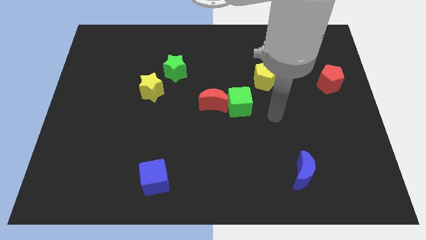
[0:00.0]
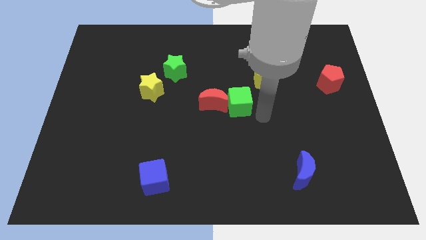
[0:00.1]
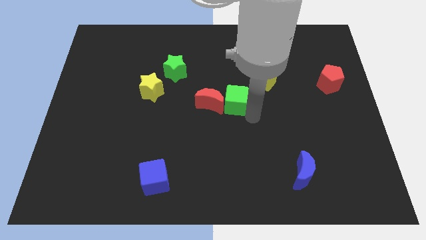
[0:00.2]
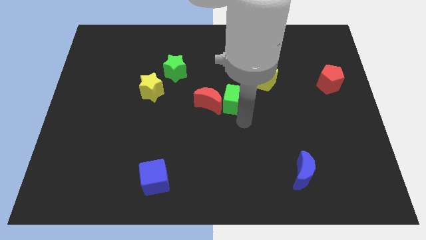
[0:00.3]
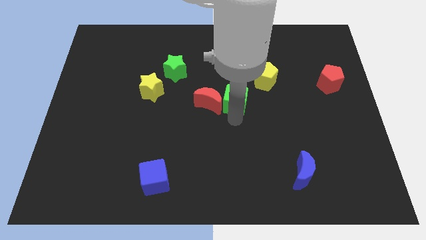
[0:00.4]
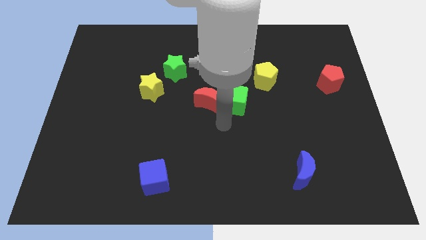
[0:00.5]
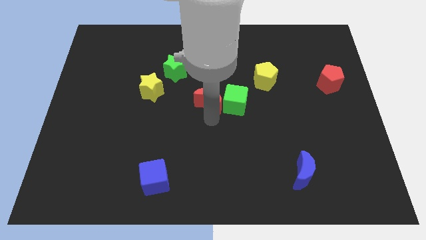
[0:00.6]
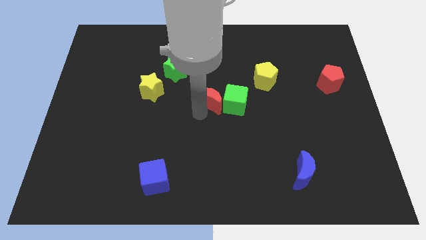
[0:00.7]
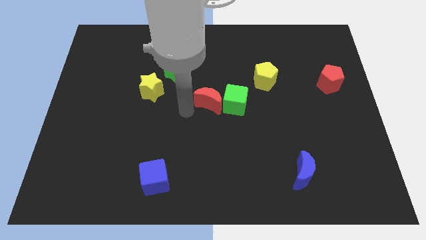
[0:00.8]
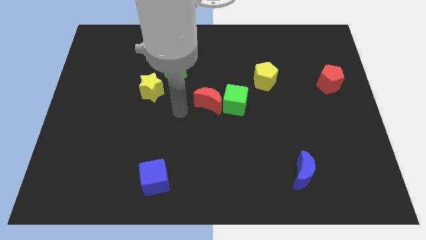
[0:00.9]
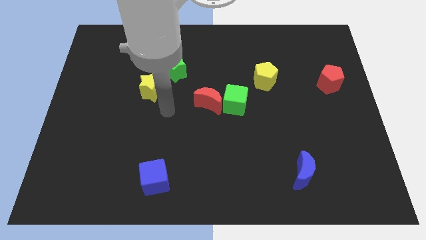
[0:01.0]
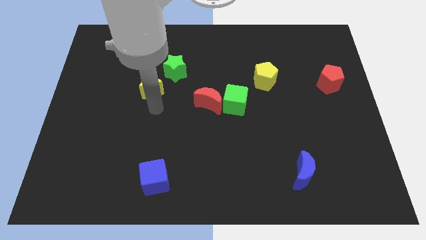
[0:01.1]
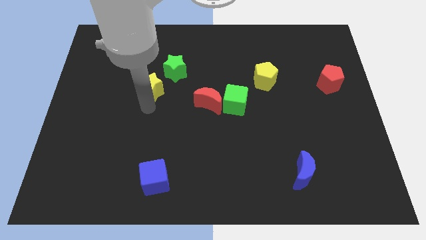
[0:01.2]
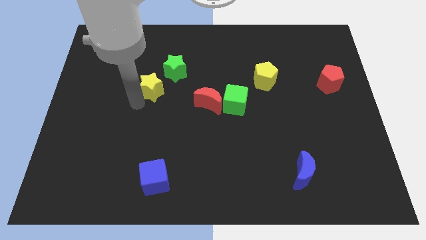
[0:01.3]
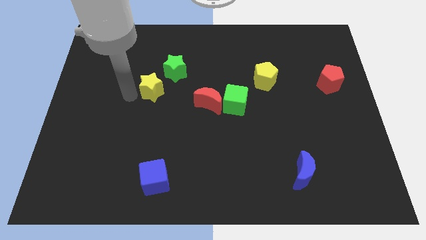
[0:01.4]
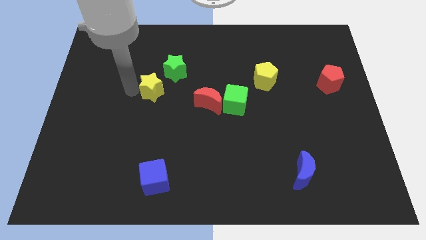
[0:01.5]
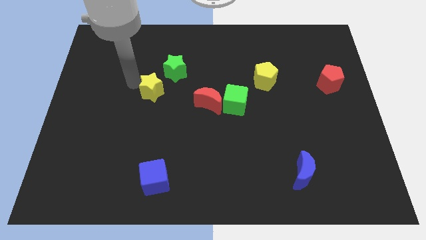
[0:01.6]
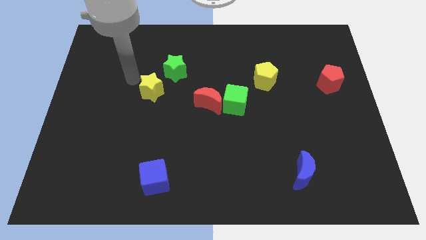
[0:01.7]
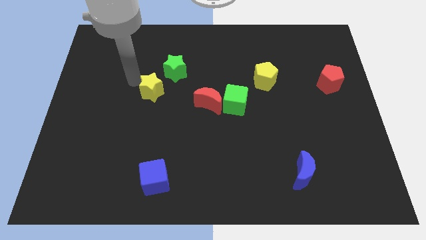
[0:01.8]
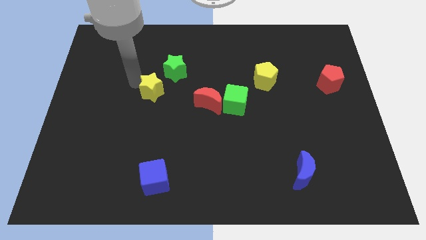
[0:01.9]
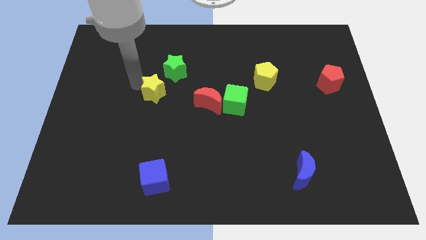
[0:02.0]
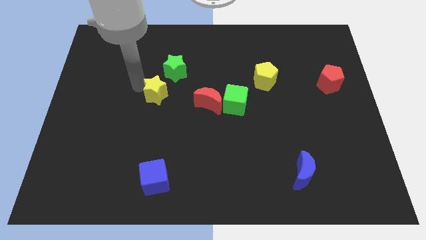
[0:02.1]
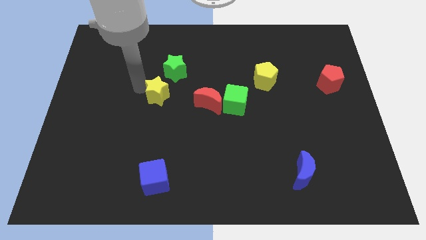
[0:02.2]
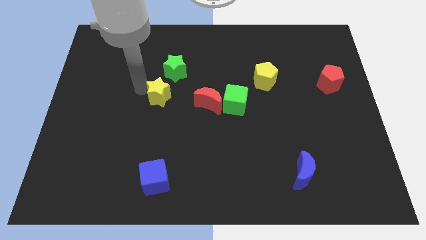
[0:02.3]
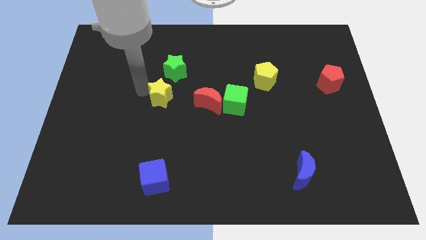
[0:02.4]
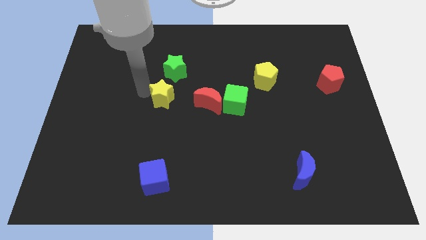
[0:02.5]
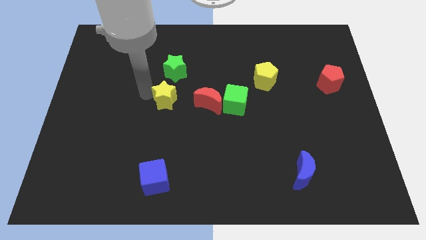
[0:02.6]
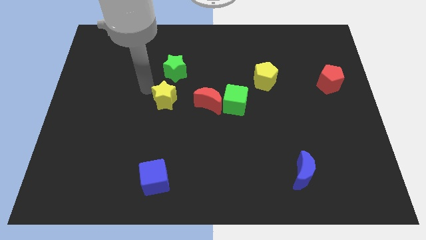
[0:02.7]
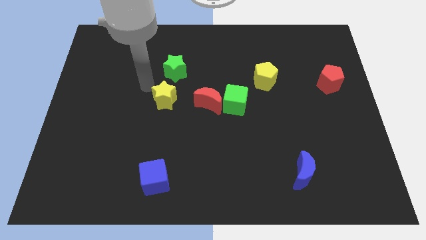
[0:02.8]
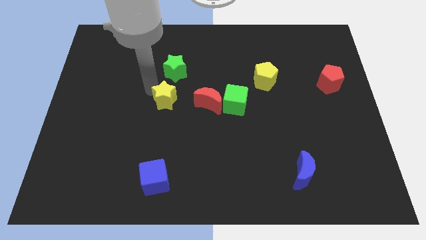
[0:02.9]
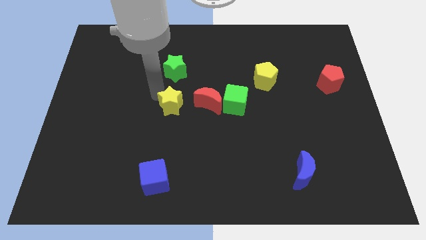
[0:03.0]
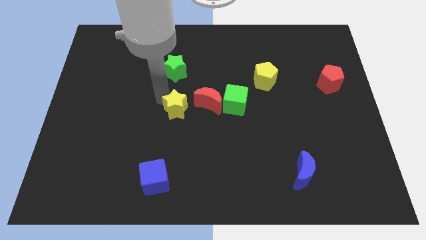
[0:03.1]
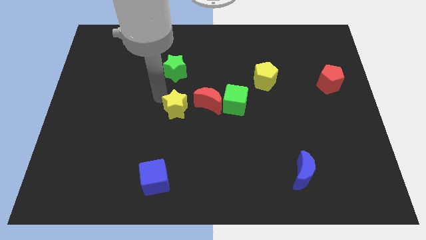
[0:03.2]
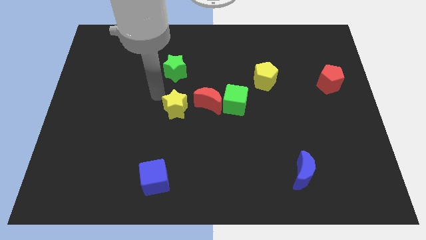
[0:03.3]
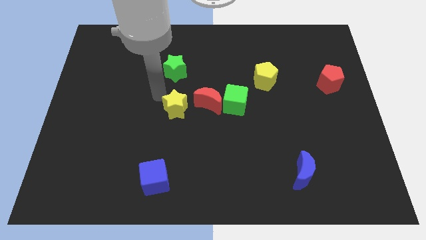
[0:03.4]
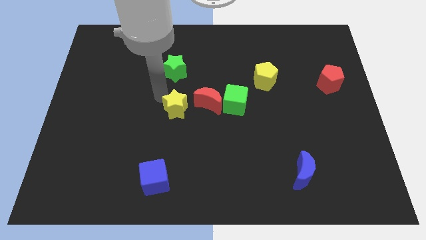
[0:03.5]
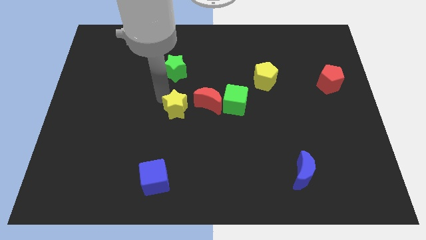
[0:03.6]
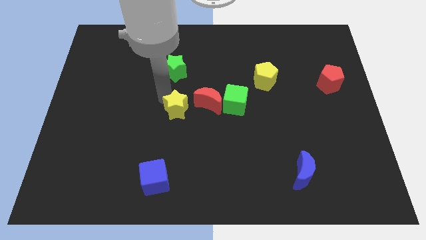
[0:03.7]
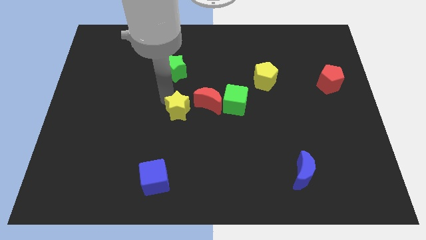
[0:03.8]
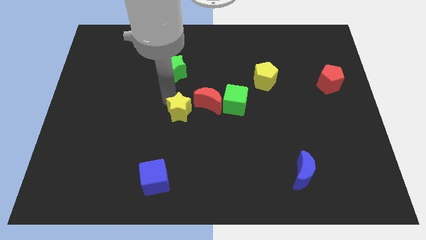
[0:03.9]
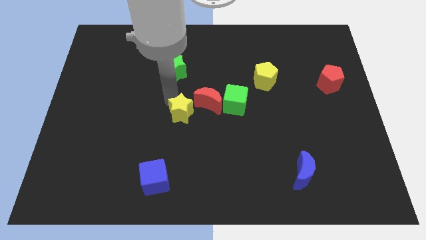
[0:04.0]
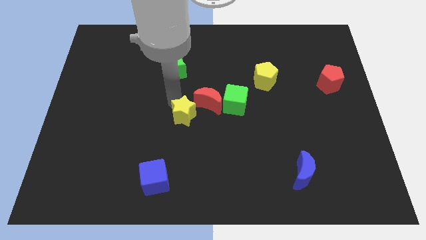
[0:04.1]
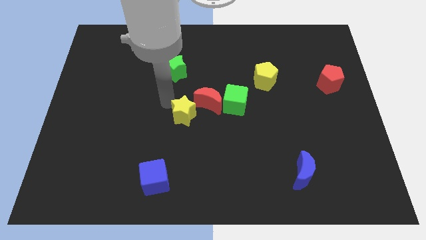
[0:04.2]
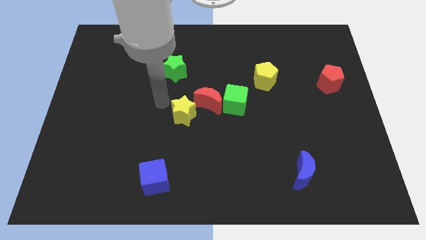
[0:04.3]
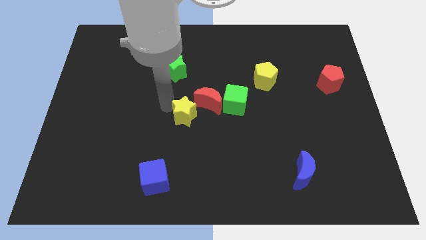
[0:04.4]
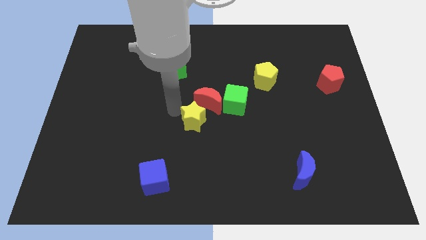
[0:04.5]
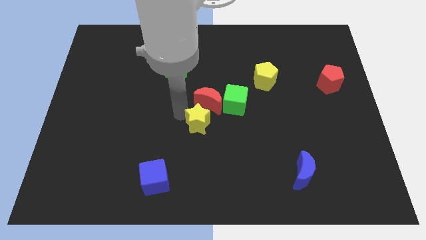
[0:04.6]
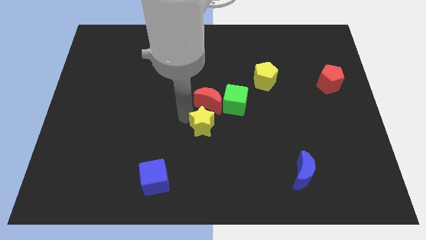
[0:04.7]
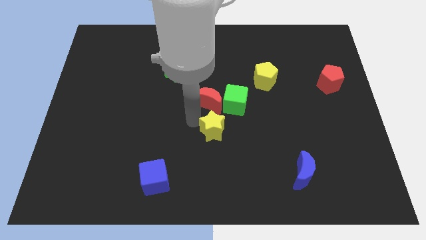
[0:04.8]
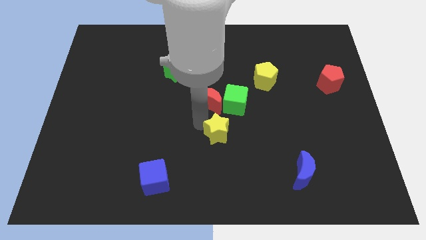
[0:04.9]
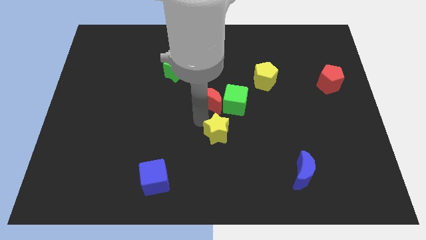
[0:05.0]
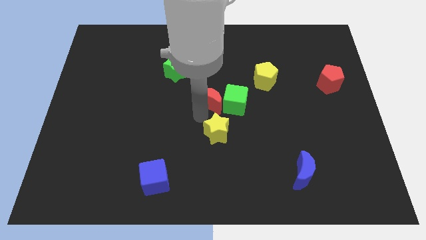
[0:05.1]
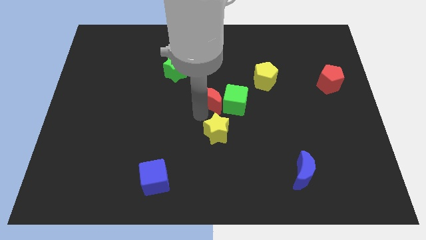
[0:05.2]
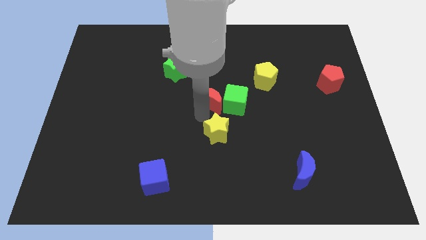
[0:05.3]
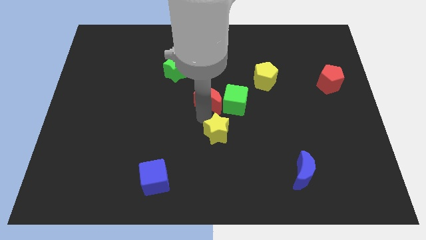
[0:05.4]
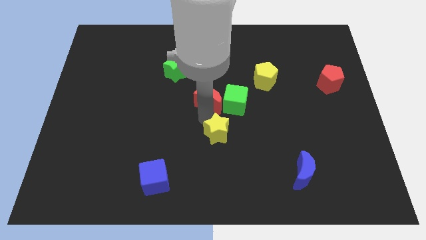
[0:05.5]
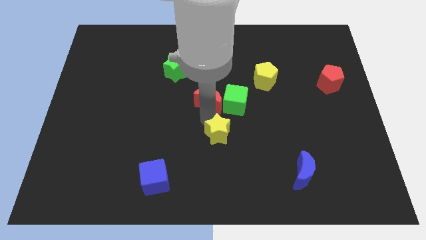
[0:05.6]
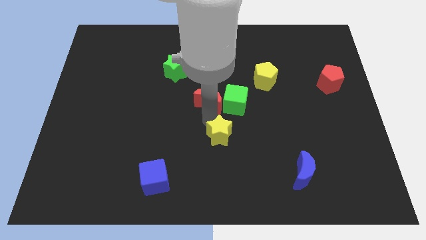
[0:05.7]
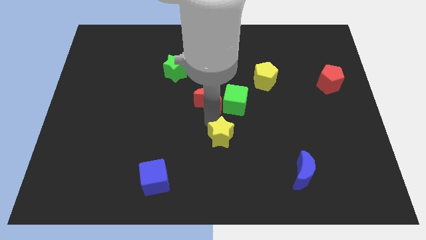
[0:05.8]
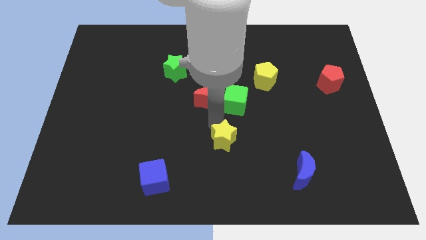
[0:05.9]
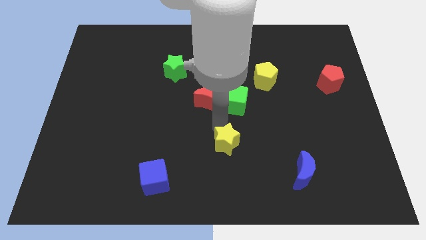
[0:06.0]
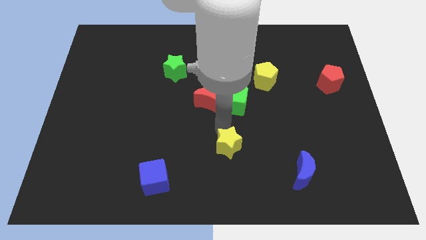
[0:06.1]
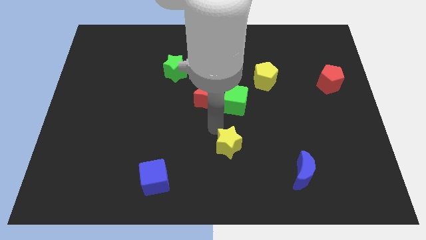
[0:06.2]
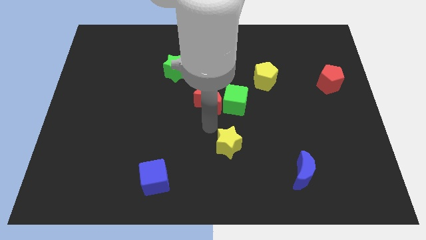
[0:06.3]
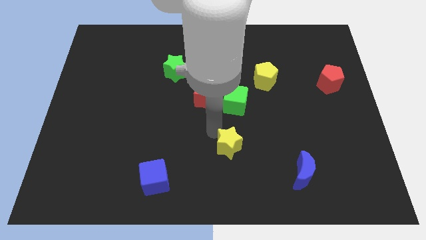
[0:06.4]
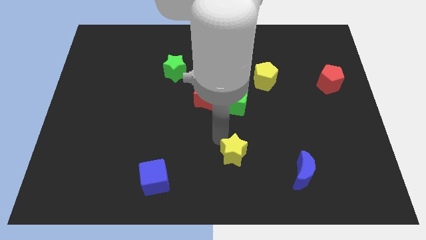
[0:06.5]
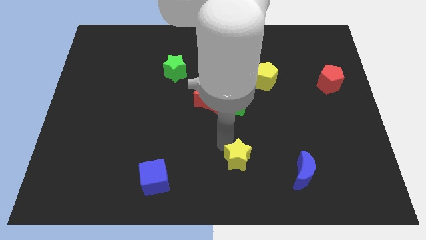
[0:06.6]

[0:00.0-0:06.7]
slide the yellow star just left of the blue moon

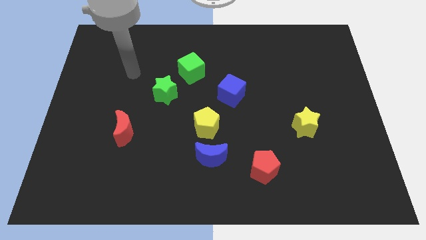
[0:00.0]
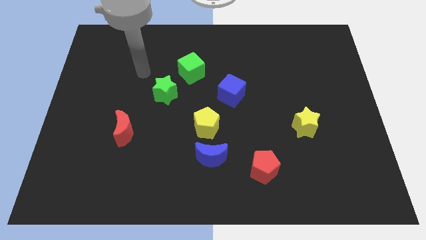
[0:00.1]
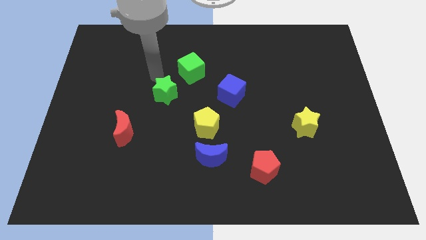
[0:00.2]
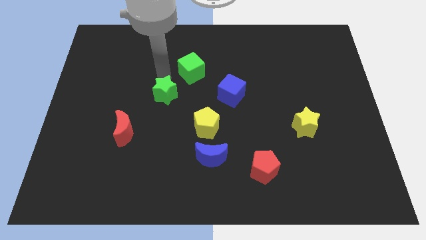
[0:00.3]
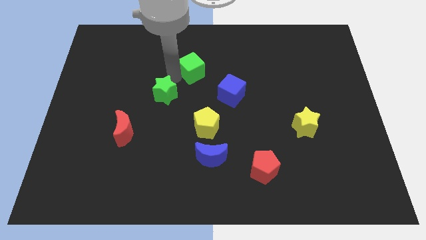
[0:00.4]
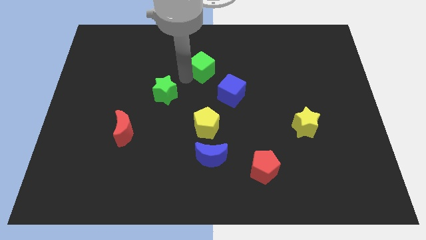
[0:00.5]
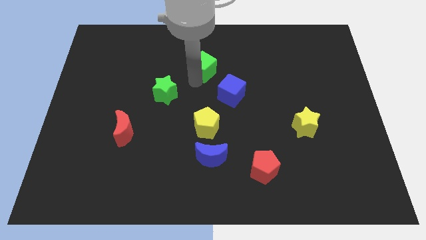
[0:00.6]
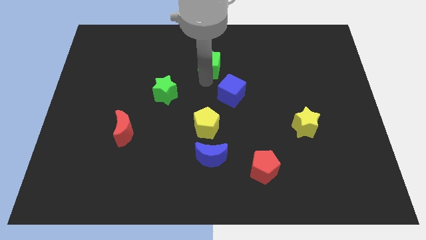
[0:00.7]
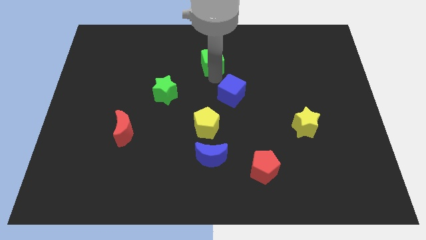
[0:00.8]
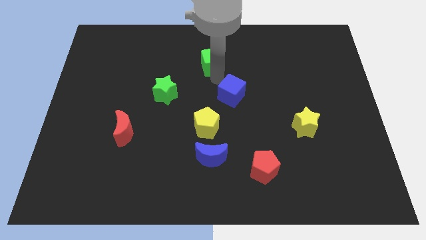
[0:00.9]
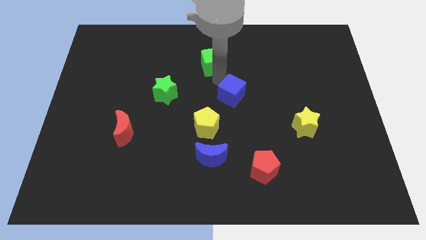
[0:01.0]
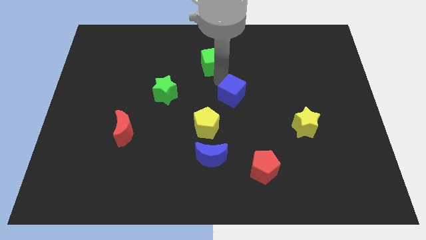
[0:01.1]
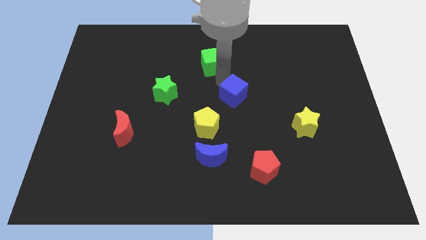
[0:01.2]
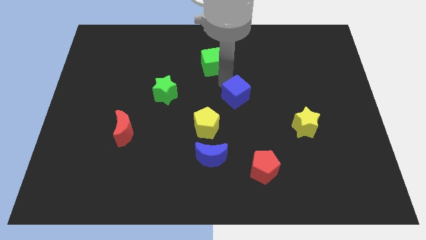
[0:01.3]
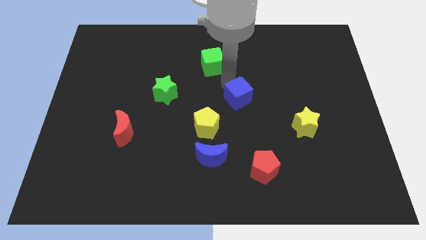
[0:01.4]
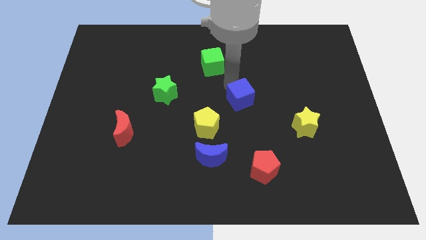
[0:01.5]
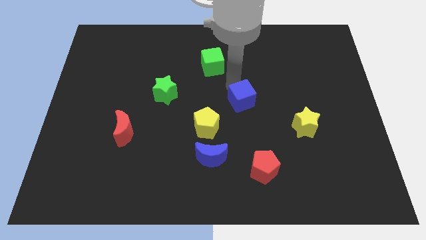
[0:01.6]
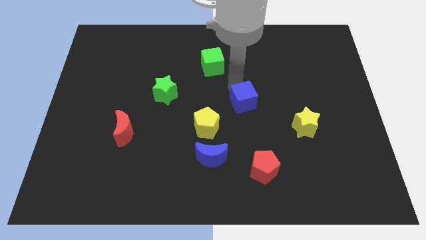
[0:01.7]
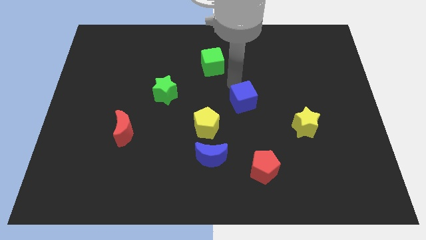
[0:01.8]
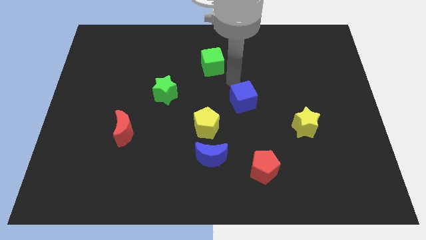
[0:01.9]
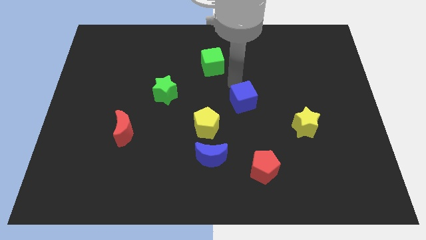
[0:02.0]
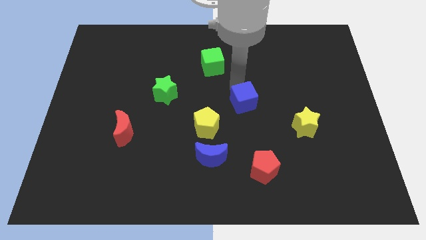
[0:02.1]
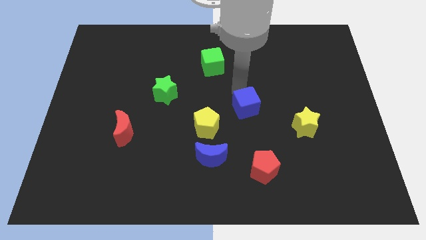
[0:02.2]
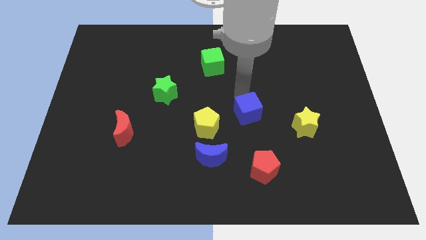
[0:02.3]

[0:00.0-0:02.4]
move the blue cube to the top side of the red pentagon
